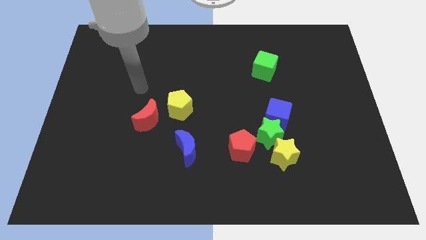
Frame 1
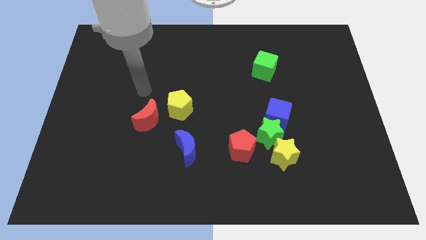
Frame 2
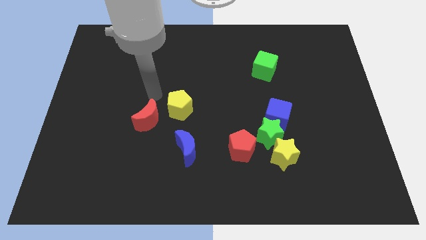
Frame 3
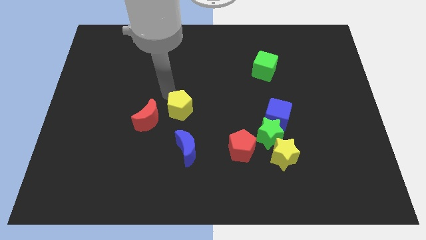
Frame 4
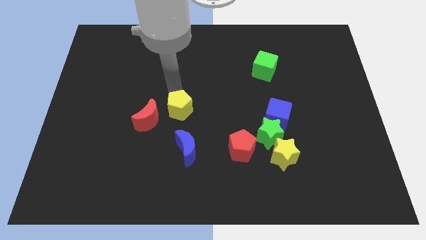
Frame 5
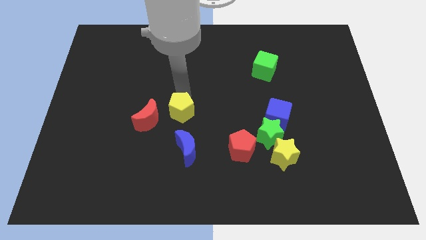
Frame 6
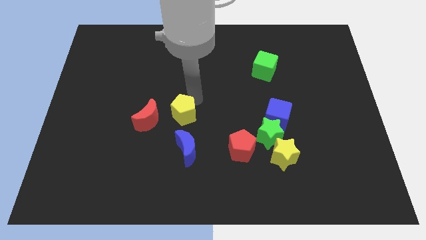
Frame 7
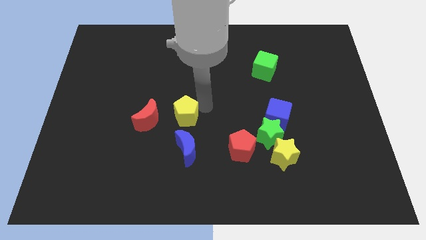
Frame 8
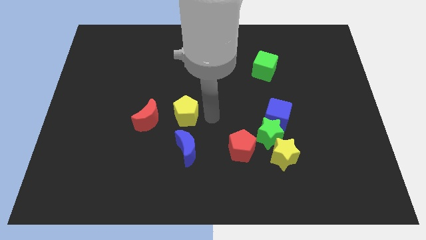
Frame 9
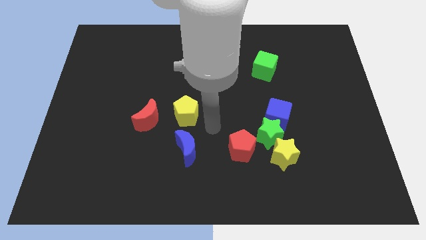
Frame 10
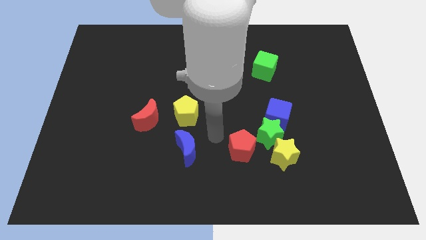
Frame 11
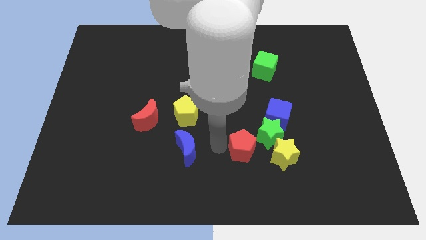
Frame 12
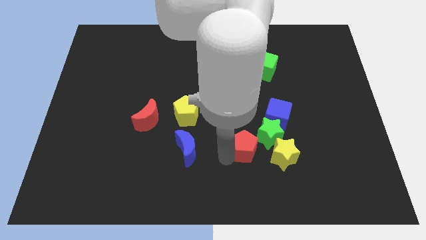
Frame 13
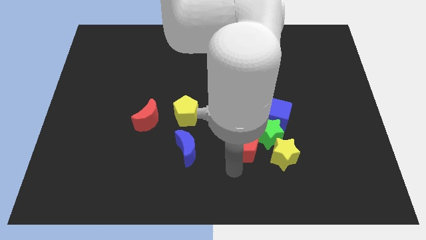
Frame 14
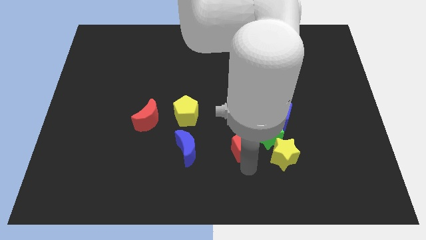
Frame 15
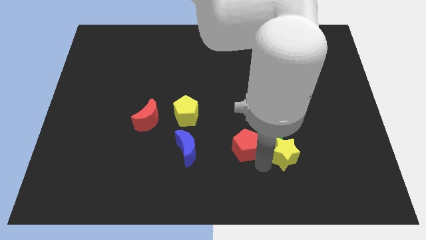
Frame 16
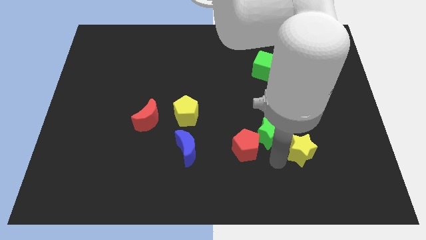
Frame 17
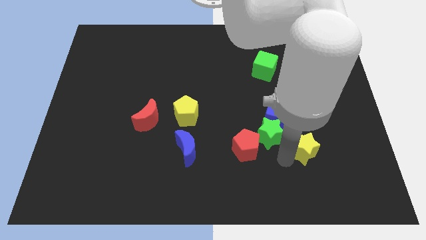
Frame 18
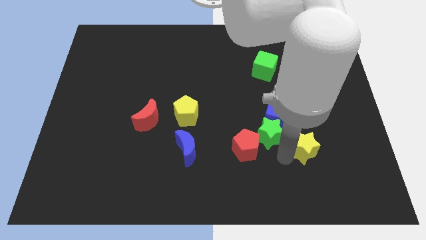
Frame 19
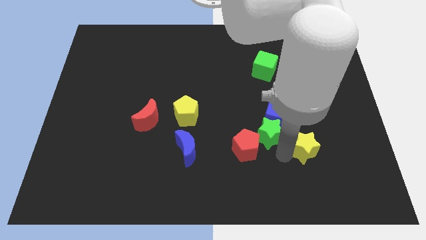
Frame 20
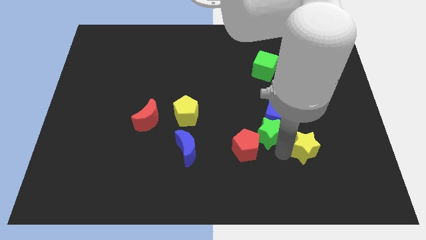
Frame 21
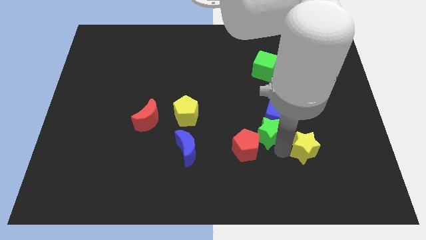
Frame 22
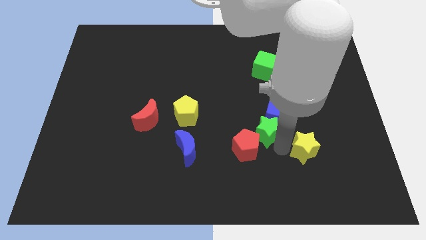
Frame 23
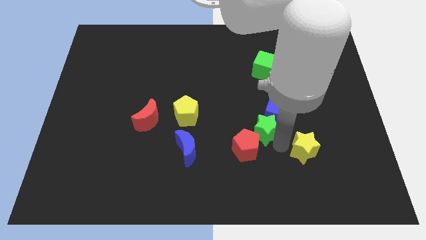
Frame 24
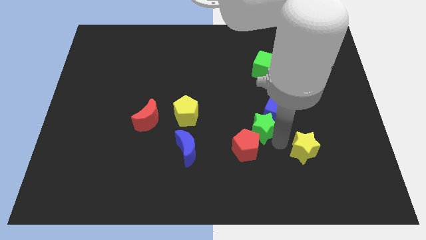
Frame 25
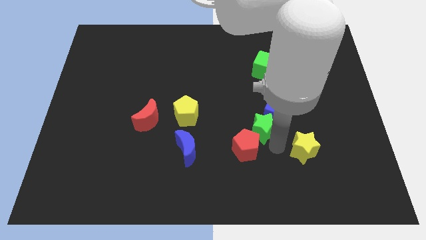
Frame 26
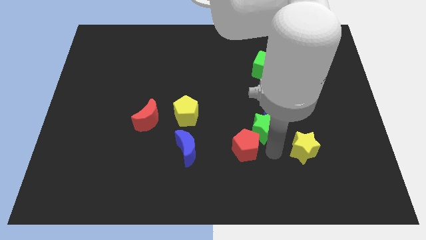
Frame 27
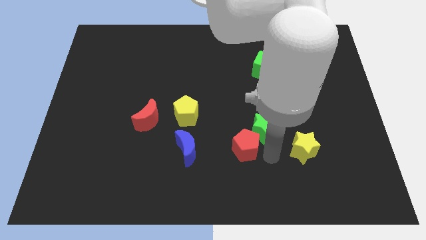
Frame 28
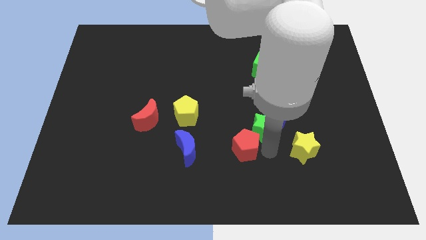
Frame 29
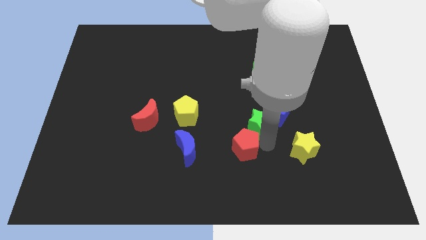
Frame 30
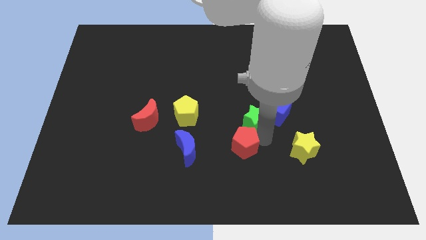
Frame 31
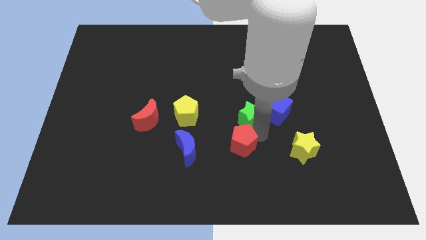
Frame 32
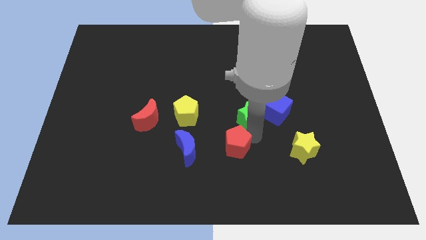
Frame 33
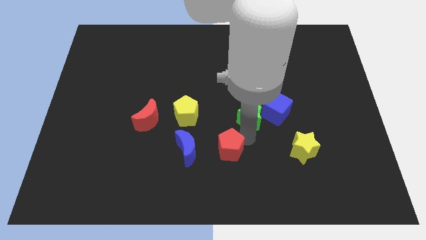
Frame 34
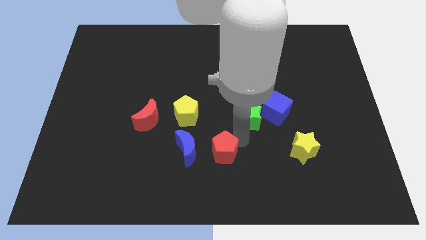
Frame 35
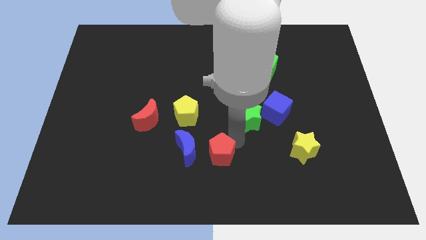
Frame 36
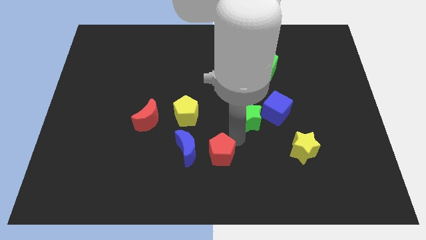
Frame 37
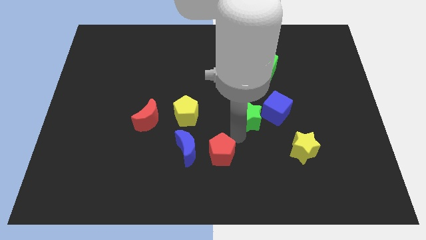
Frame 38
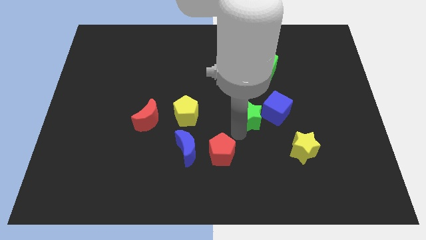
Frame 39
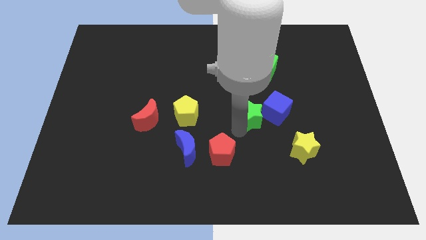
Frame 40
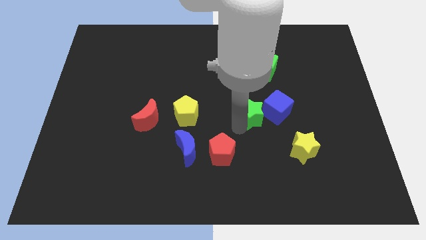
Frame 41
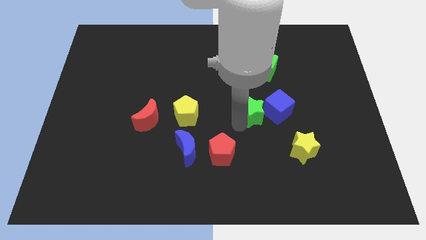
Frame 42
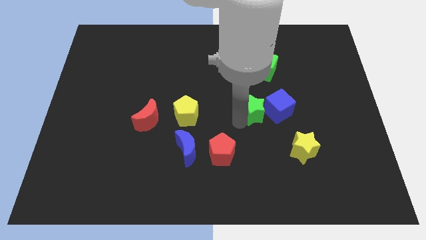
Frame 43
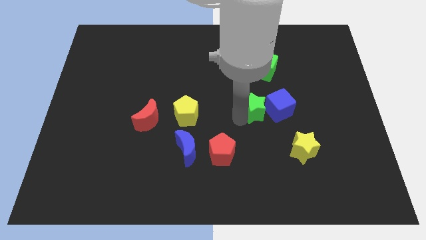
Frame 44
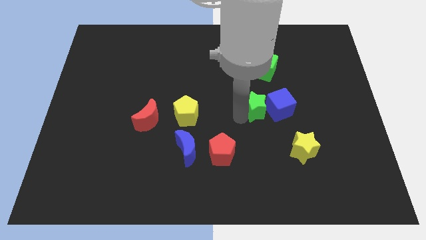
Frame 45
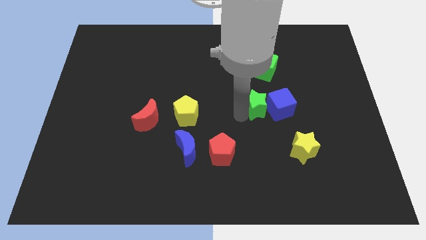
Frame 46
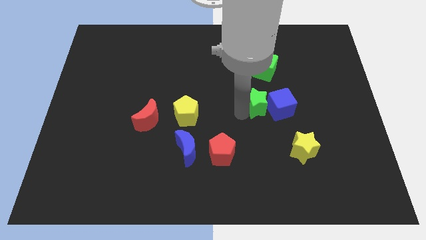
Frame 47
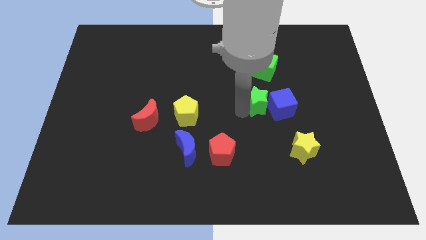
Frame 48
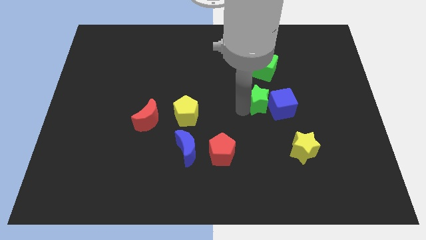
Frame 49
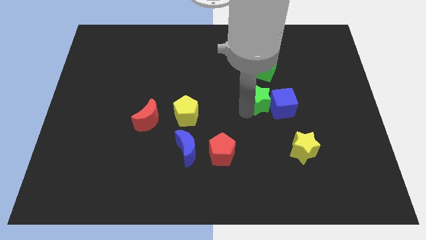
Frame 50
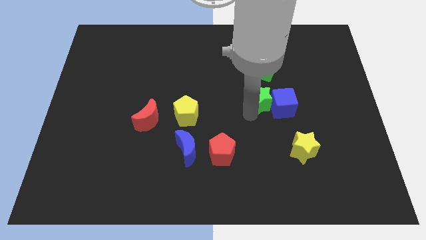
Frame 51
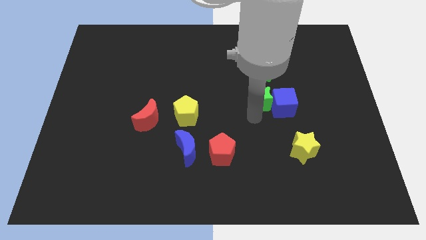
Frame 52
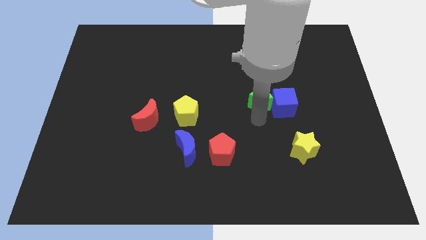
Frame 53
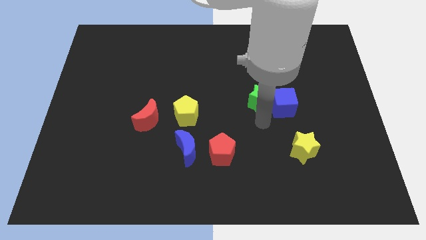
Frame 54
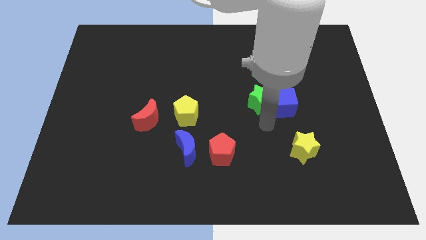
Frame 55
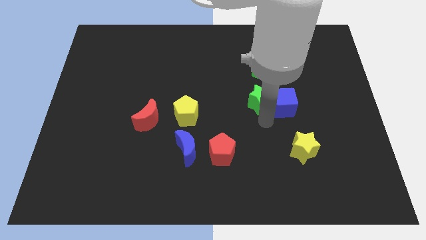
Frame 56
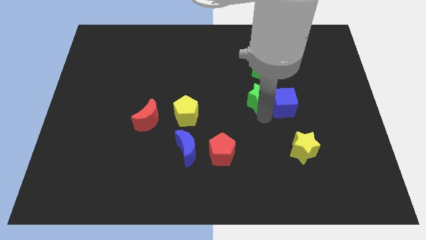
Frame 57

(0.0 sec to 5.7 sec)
move the green star away from the blue cube, yellow star, and red pentagon

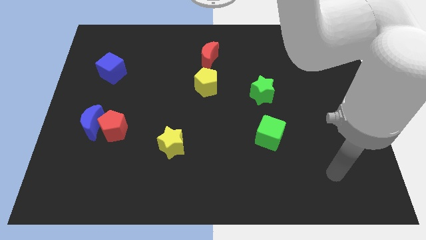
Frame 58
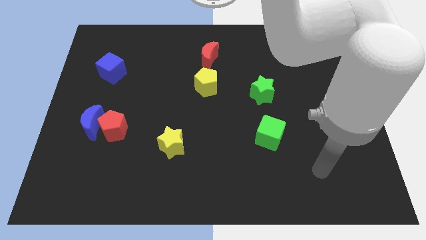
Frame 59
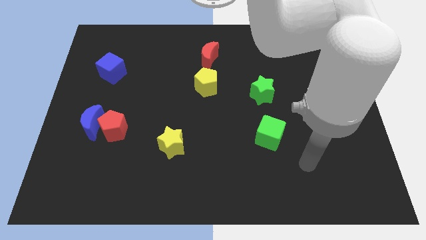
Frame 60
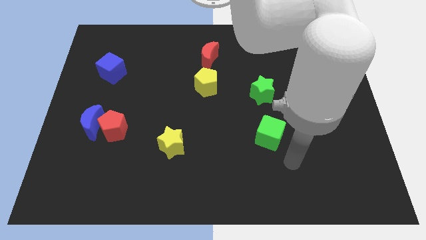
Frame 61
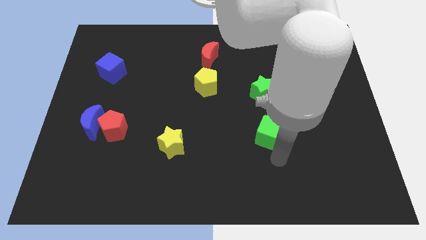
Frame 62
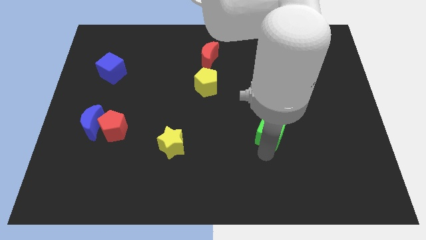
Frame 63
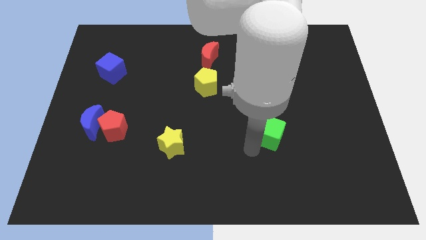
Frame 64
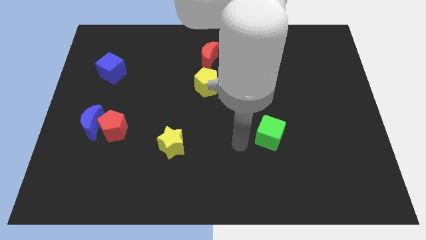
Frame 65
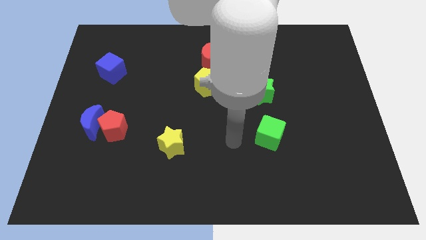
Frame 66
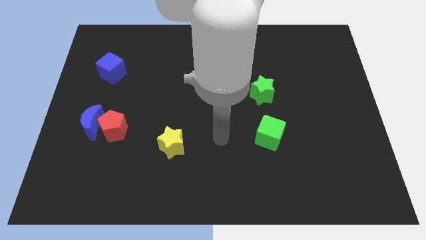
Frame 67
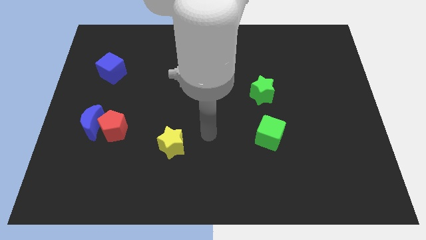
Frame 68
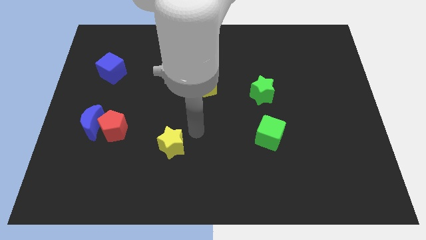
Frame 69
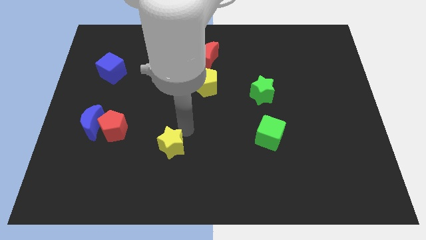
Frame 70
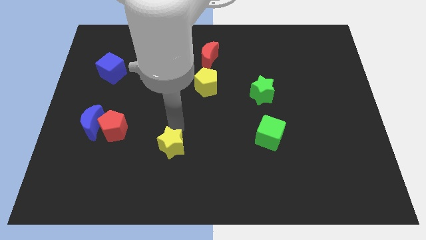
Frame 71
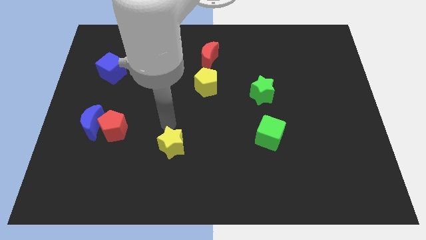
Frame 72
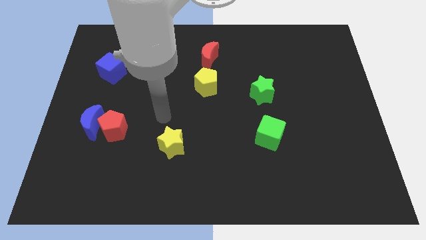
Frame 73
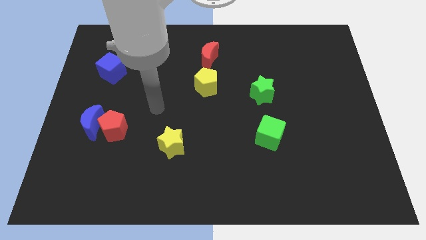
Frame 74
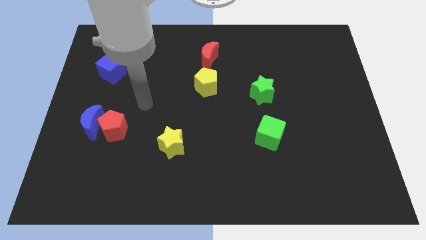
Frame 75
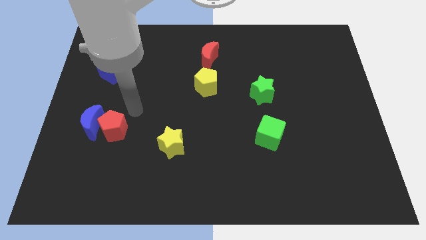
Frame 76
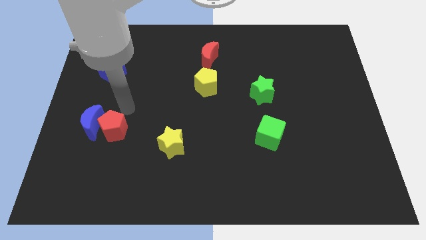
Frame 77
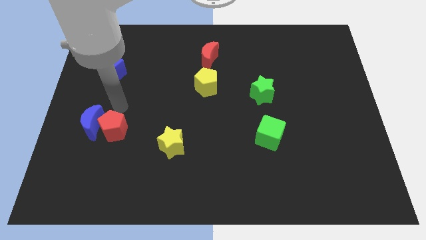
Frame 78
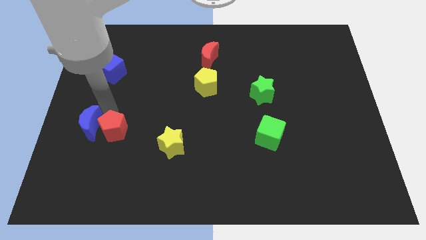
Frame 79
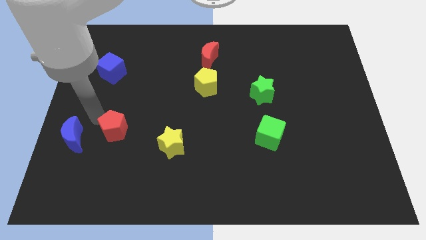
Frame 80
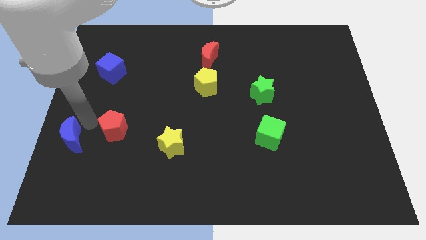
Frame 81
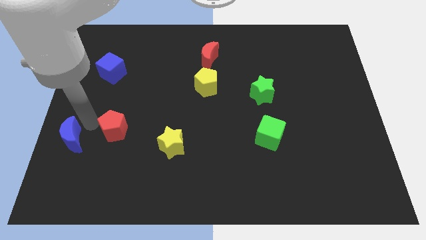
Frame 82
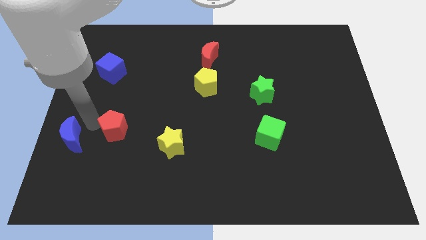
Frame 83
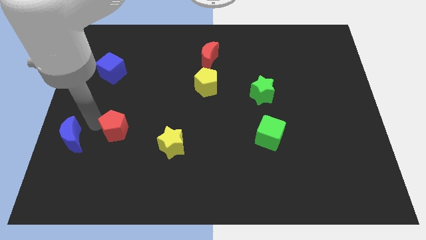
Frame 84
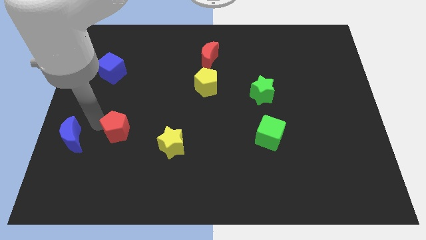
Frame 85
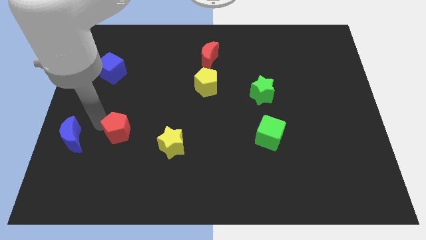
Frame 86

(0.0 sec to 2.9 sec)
move the red pentagon away from the blue moon

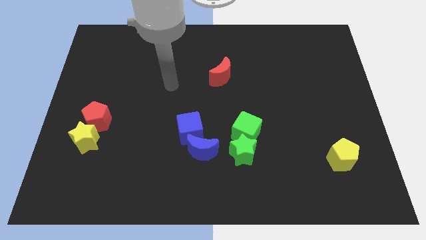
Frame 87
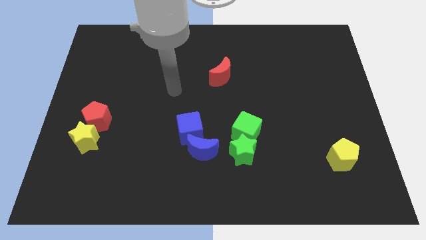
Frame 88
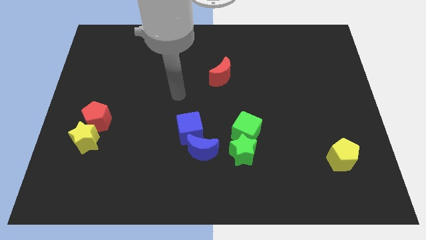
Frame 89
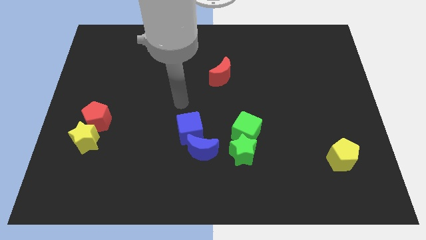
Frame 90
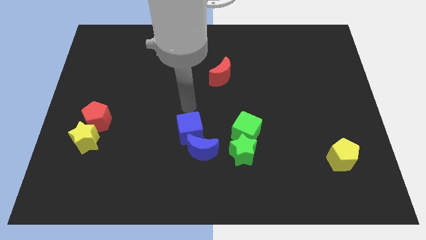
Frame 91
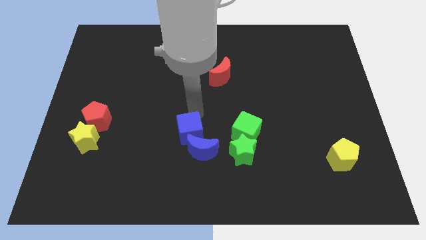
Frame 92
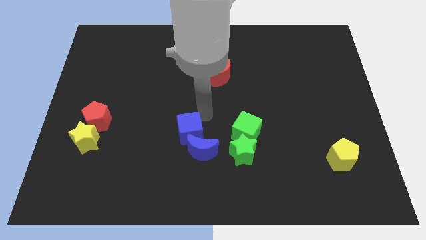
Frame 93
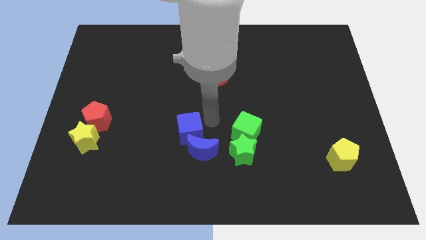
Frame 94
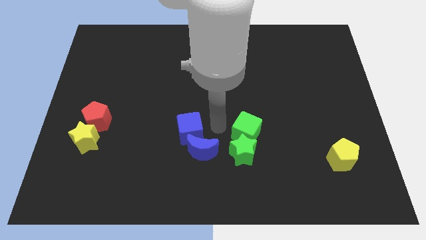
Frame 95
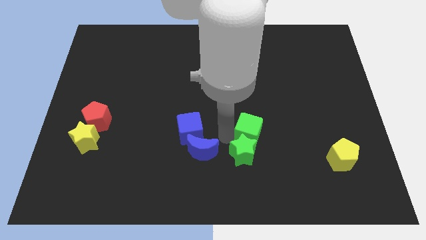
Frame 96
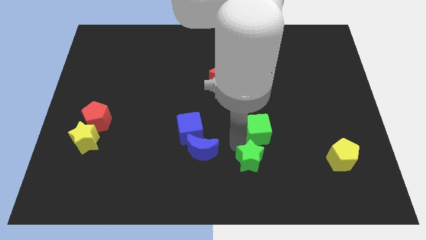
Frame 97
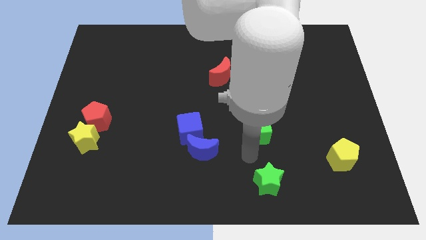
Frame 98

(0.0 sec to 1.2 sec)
separate the green cube from the green star
